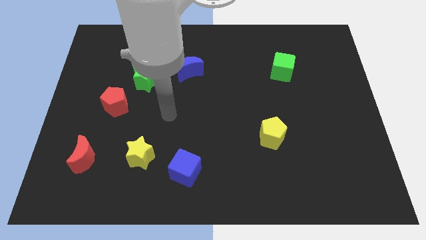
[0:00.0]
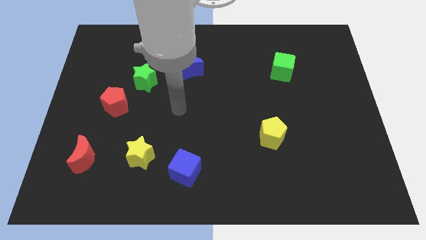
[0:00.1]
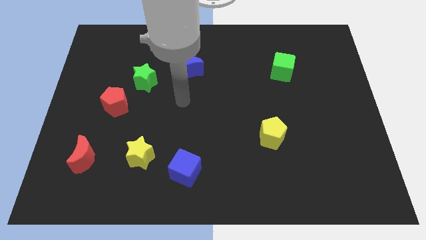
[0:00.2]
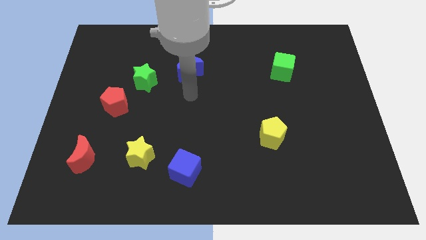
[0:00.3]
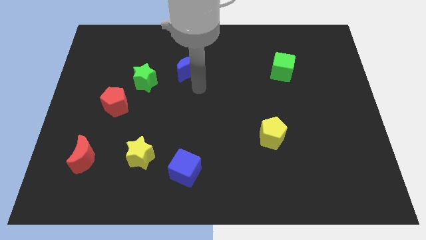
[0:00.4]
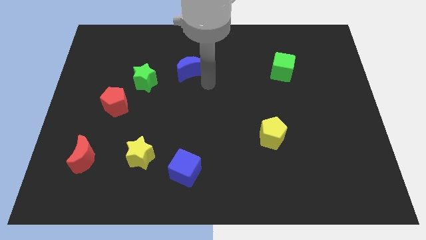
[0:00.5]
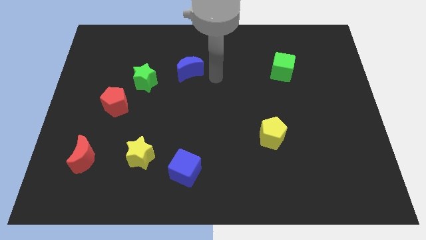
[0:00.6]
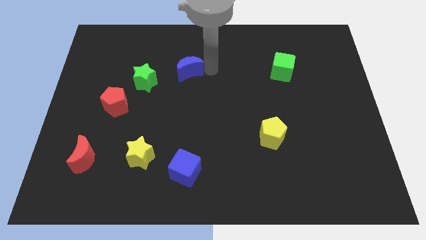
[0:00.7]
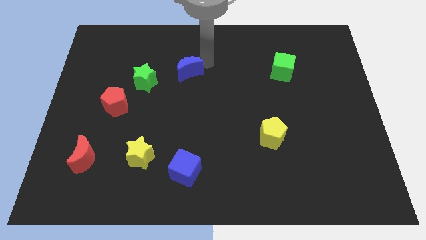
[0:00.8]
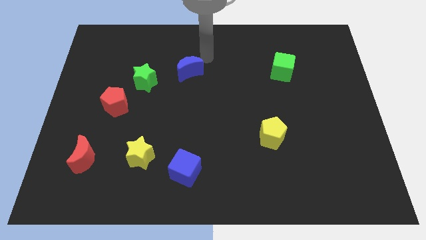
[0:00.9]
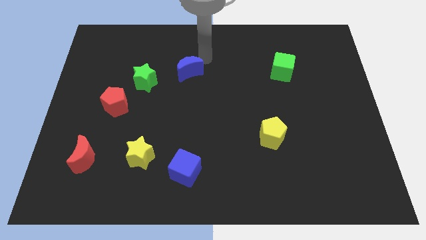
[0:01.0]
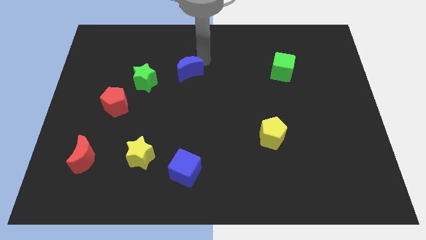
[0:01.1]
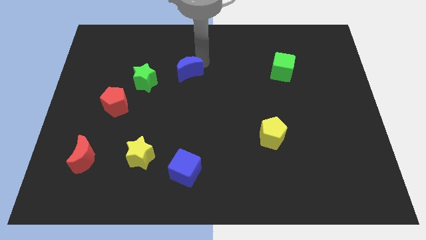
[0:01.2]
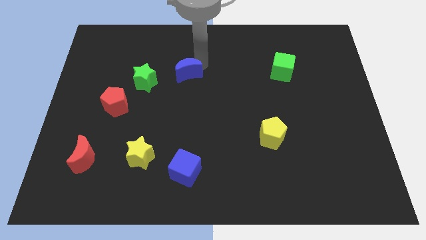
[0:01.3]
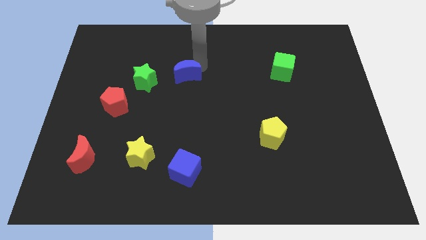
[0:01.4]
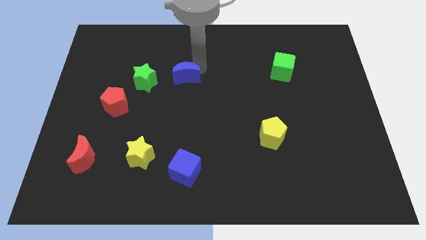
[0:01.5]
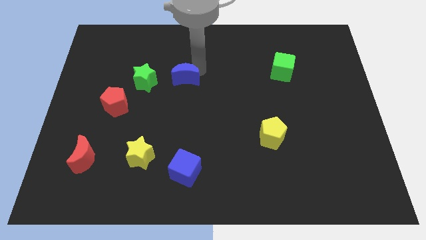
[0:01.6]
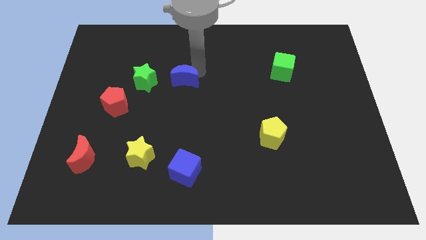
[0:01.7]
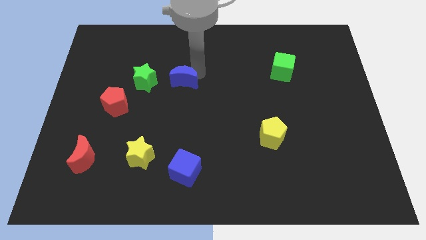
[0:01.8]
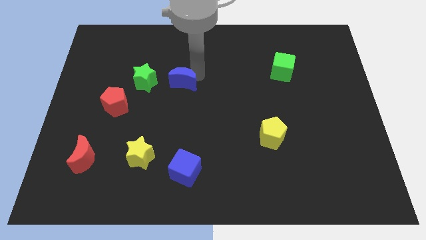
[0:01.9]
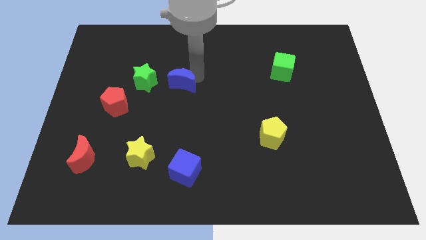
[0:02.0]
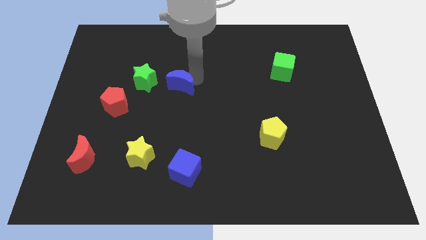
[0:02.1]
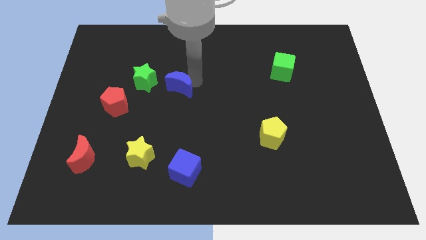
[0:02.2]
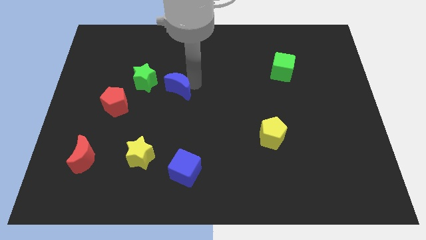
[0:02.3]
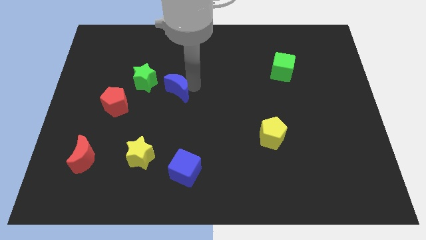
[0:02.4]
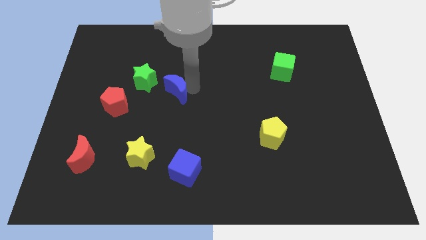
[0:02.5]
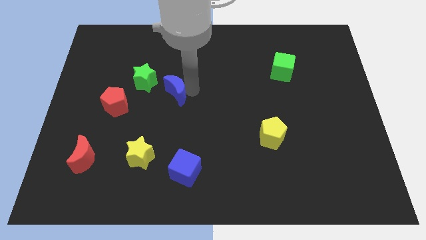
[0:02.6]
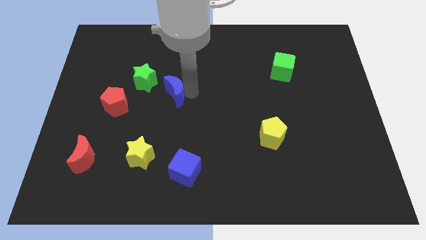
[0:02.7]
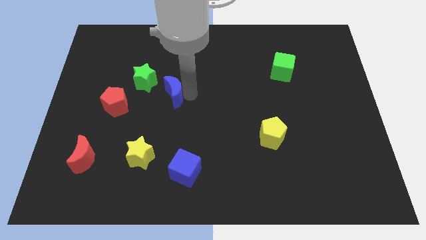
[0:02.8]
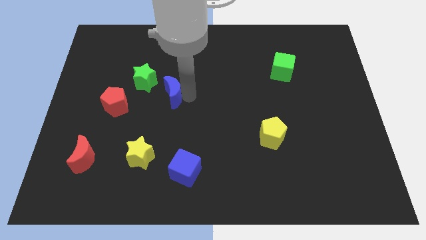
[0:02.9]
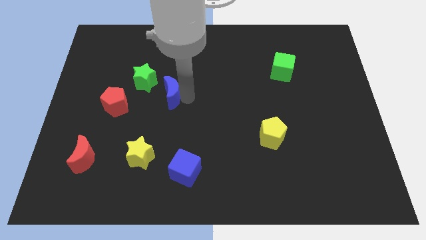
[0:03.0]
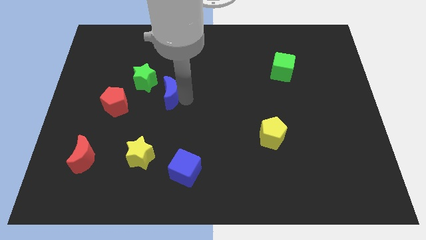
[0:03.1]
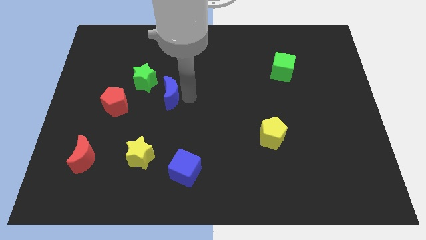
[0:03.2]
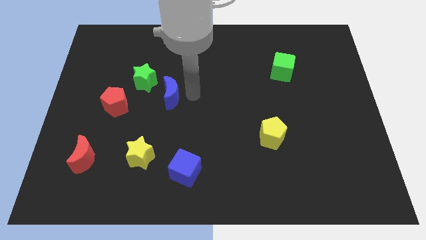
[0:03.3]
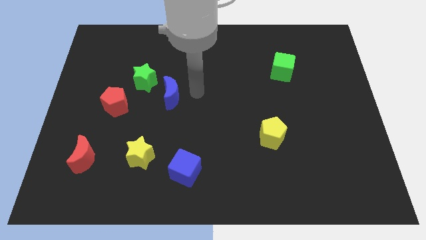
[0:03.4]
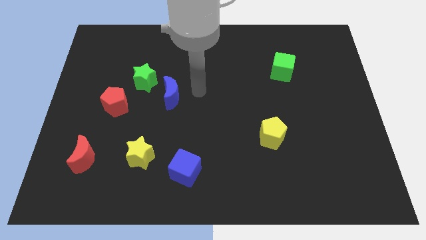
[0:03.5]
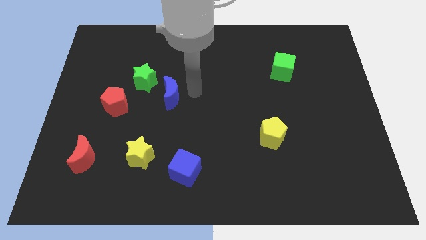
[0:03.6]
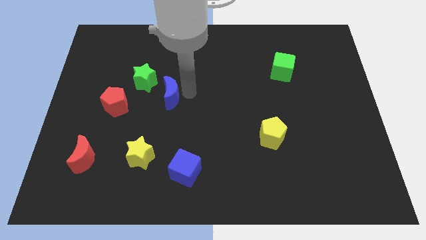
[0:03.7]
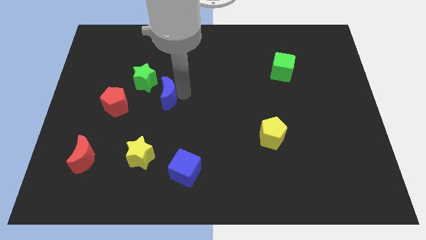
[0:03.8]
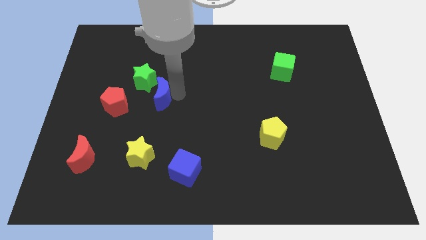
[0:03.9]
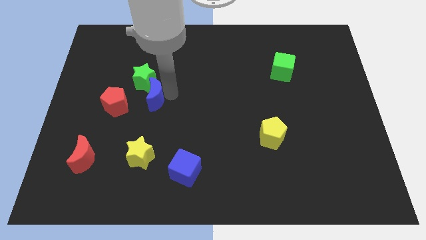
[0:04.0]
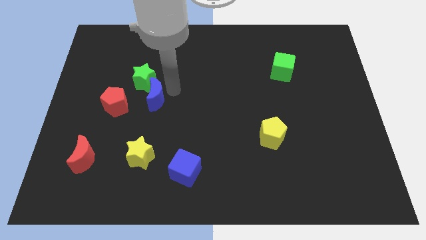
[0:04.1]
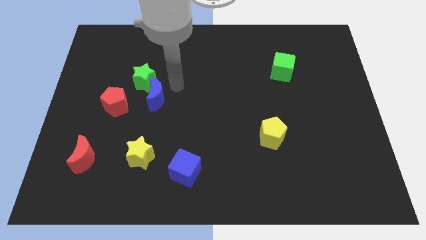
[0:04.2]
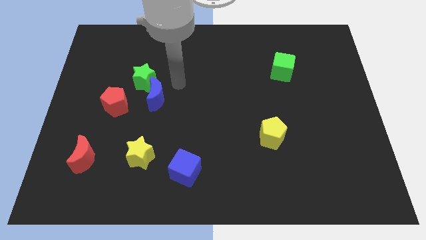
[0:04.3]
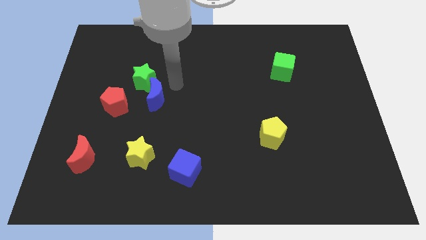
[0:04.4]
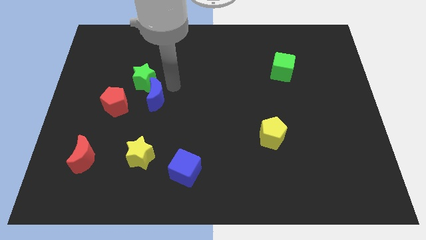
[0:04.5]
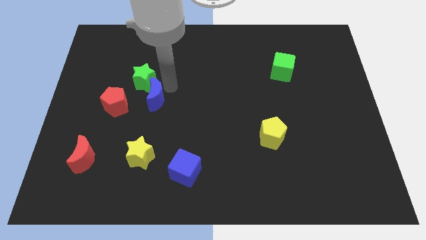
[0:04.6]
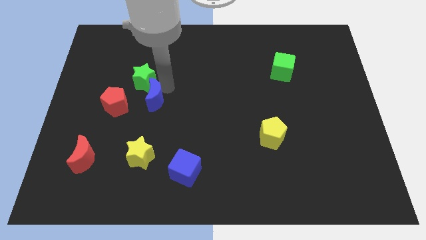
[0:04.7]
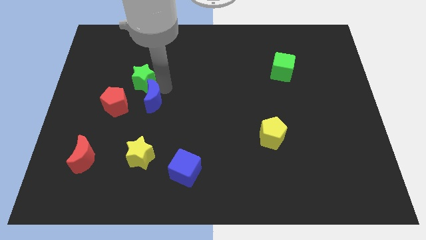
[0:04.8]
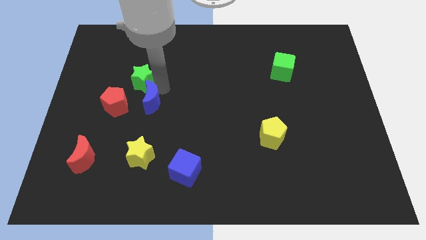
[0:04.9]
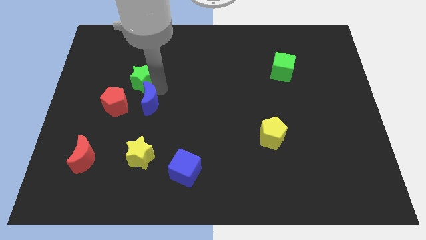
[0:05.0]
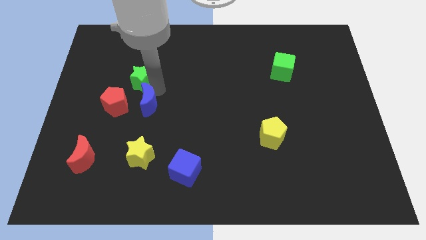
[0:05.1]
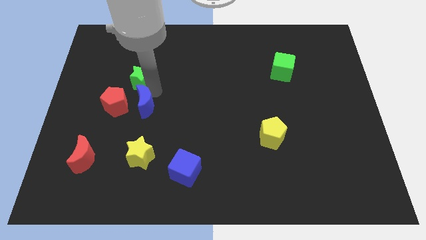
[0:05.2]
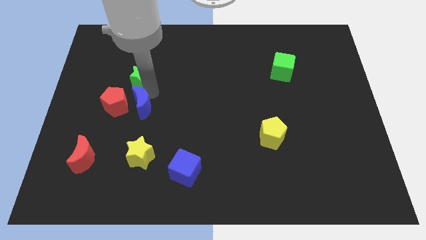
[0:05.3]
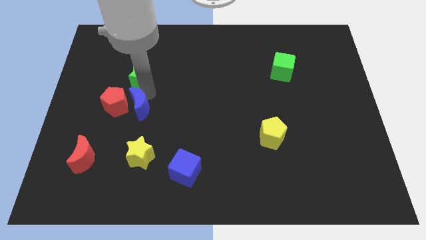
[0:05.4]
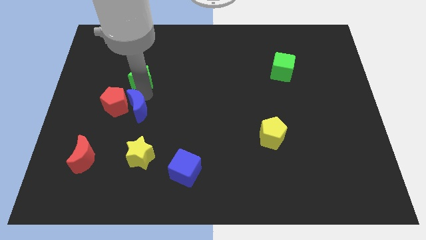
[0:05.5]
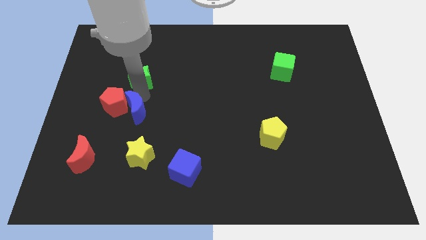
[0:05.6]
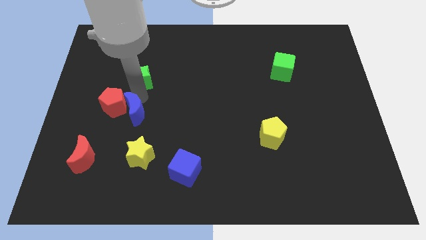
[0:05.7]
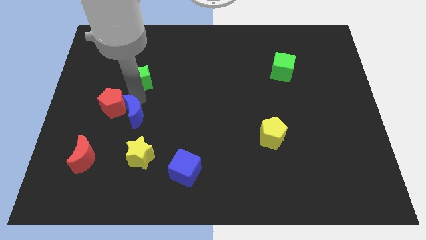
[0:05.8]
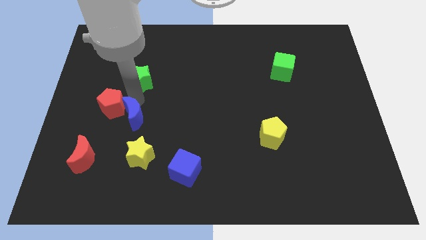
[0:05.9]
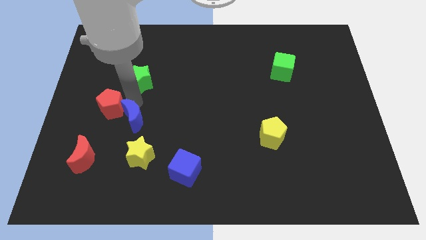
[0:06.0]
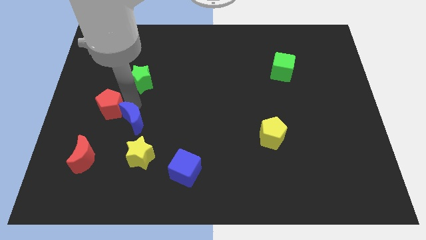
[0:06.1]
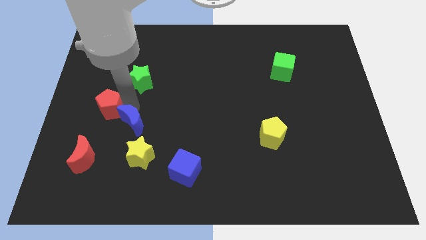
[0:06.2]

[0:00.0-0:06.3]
push the blue moon to the top right of the red moon

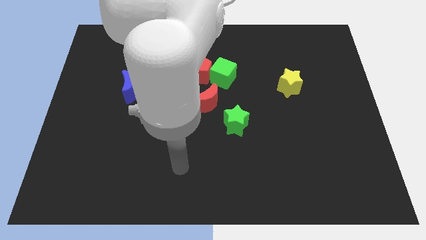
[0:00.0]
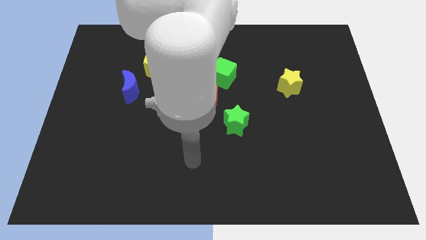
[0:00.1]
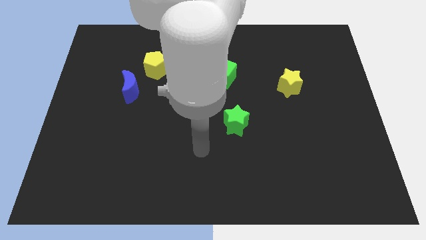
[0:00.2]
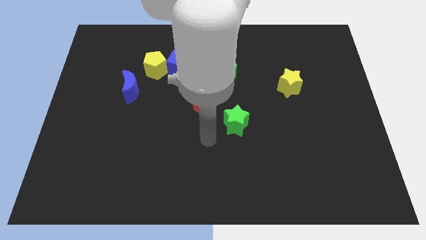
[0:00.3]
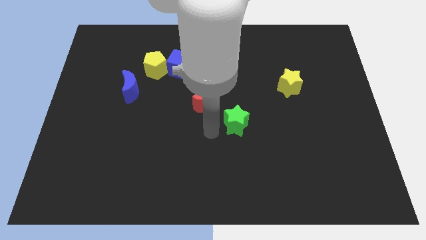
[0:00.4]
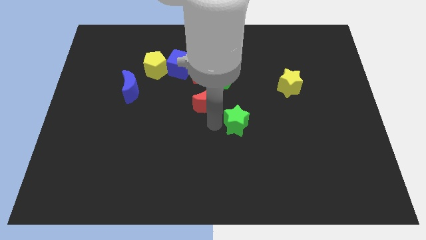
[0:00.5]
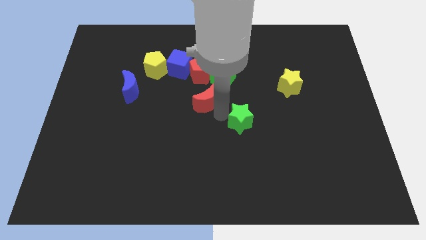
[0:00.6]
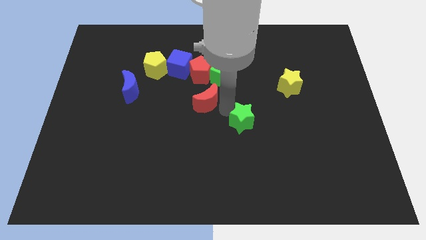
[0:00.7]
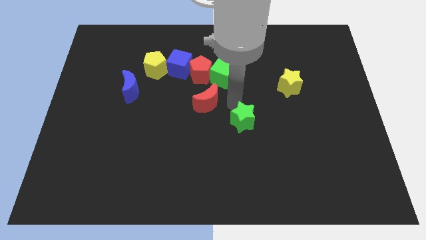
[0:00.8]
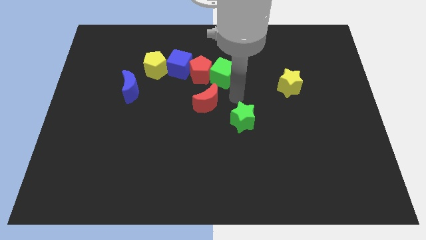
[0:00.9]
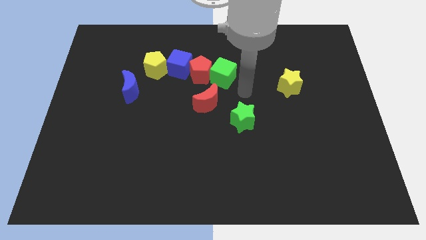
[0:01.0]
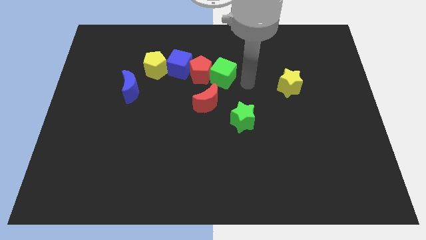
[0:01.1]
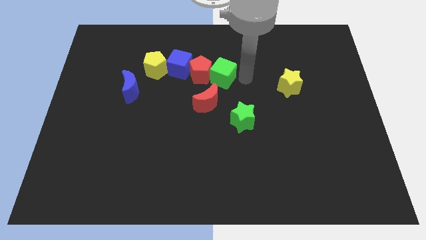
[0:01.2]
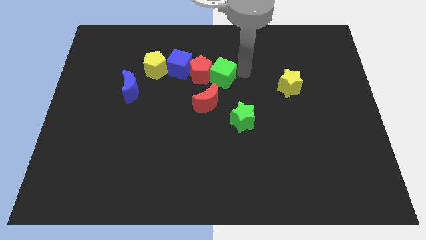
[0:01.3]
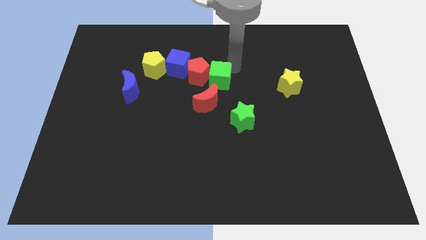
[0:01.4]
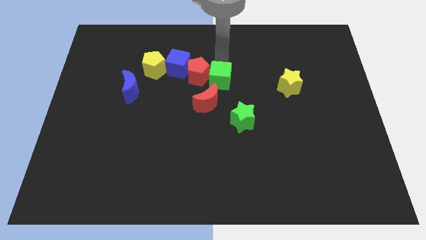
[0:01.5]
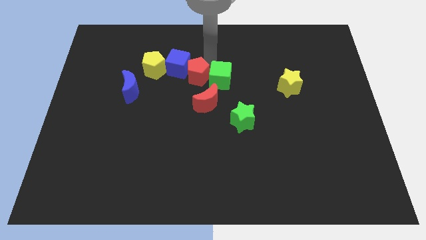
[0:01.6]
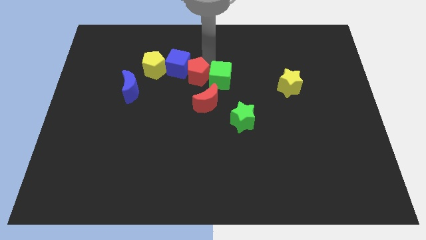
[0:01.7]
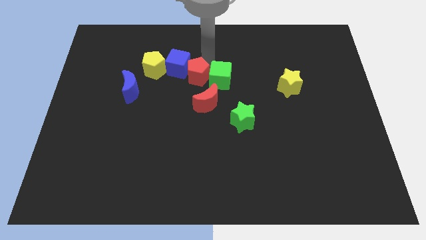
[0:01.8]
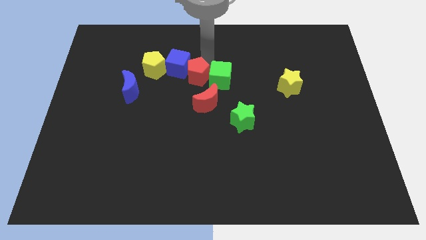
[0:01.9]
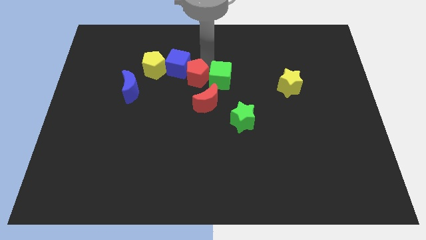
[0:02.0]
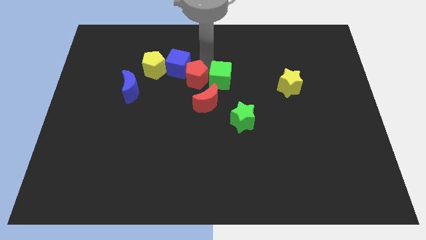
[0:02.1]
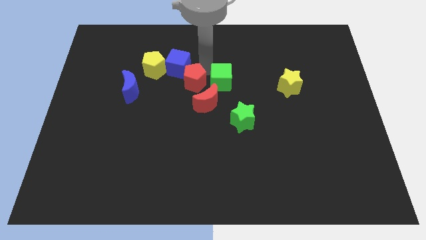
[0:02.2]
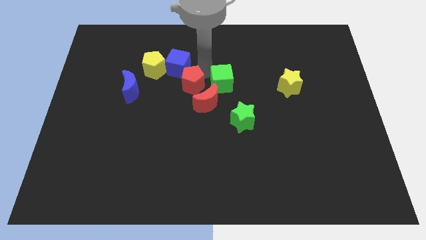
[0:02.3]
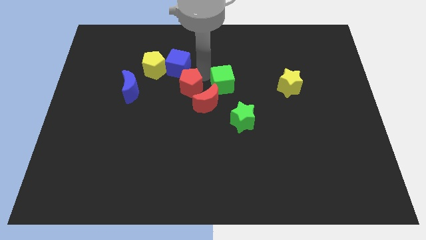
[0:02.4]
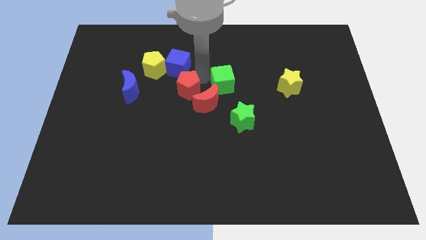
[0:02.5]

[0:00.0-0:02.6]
move the red pentagon left of the red moon
